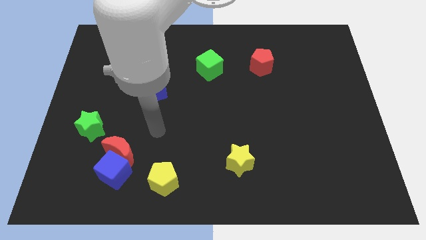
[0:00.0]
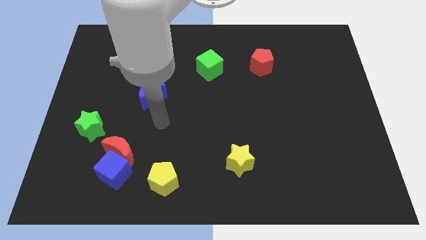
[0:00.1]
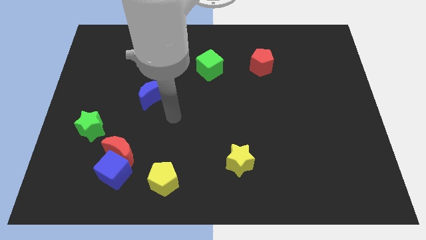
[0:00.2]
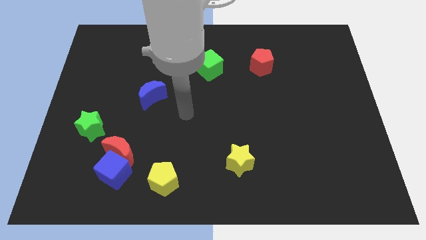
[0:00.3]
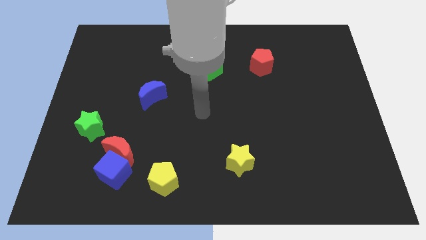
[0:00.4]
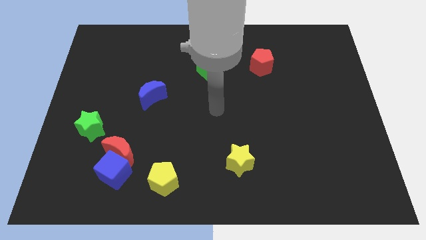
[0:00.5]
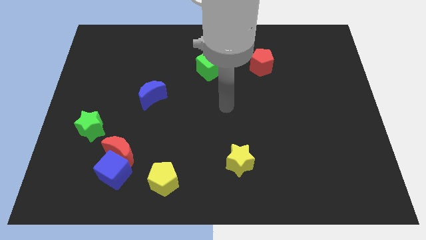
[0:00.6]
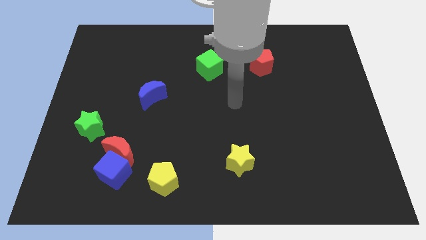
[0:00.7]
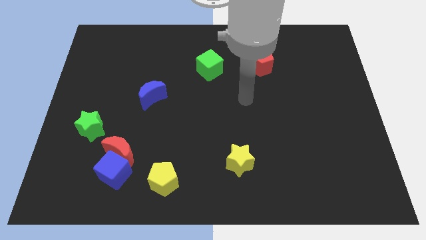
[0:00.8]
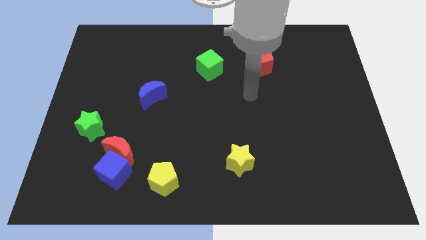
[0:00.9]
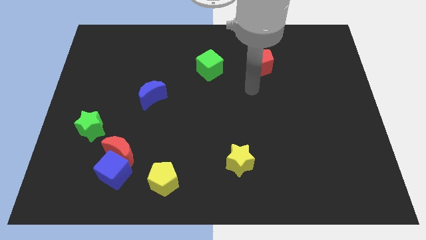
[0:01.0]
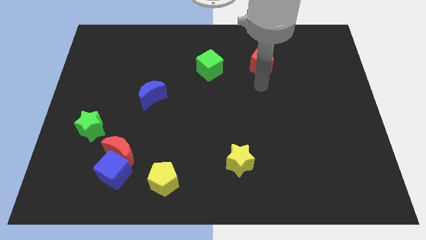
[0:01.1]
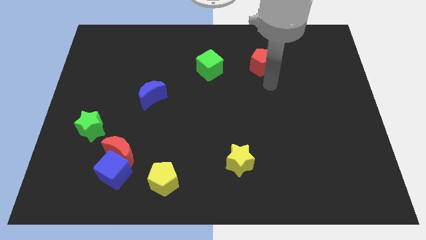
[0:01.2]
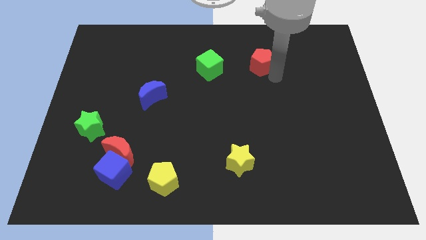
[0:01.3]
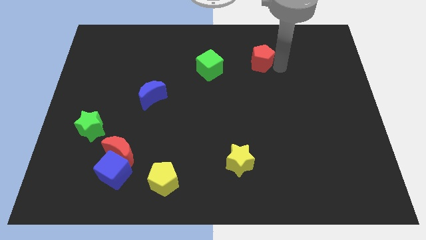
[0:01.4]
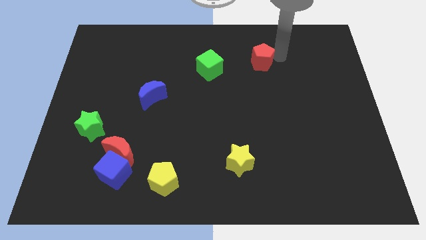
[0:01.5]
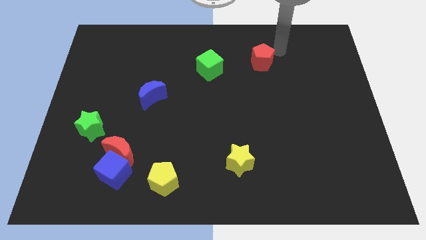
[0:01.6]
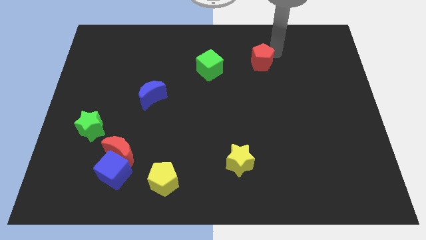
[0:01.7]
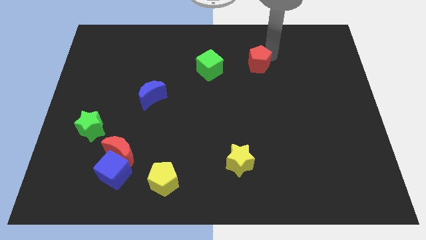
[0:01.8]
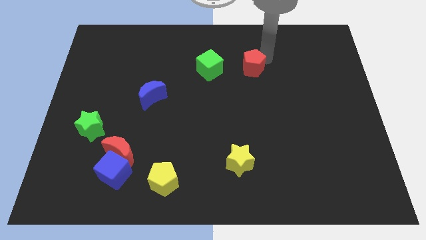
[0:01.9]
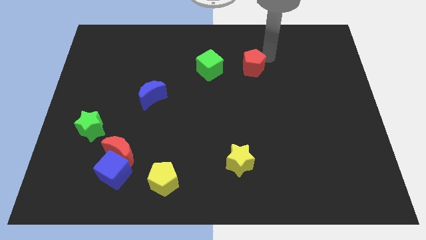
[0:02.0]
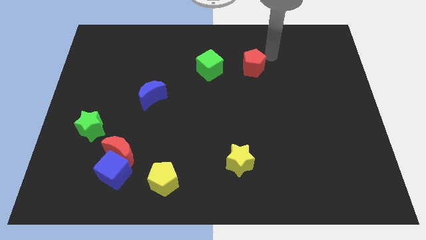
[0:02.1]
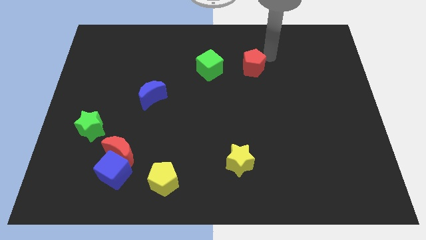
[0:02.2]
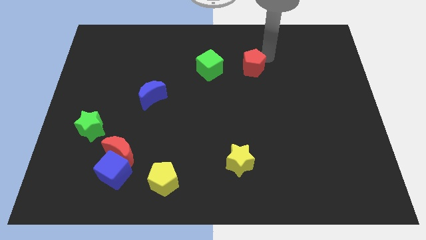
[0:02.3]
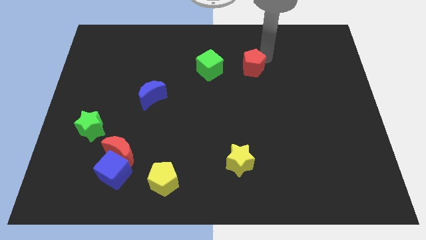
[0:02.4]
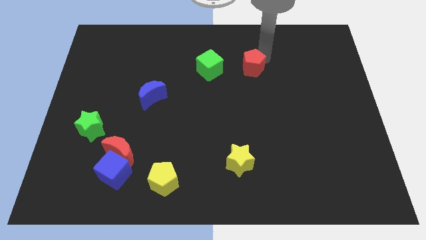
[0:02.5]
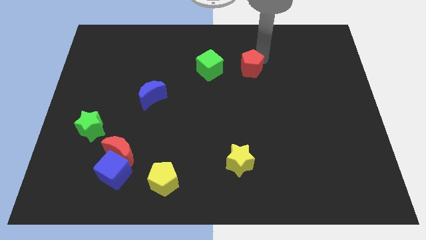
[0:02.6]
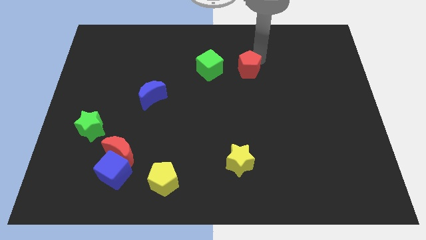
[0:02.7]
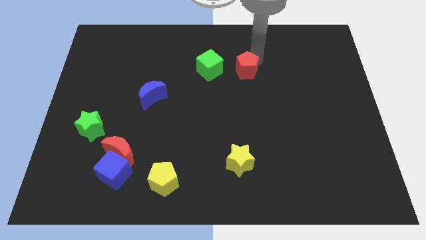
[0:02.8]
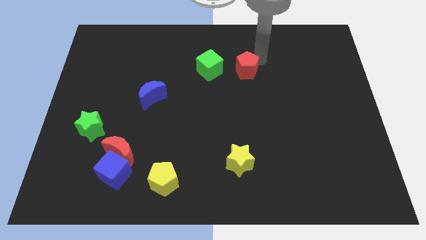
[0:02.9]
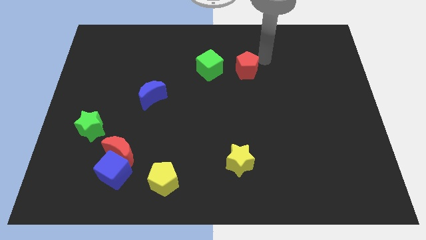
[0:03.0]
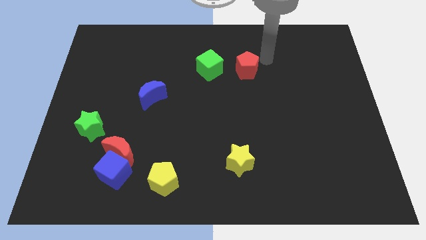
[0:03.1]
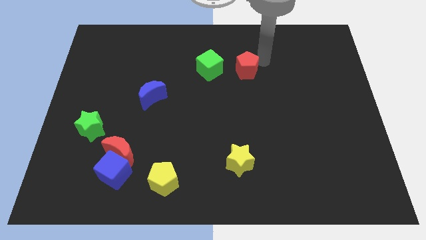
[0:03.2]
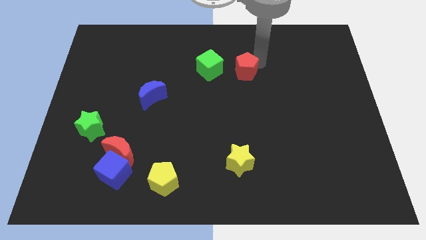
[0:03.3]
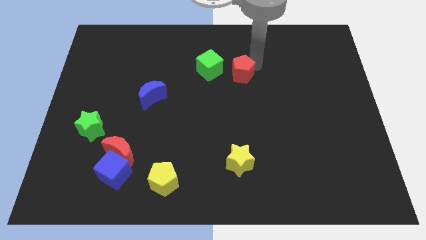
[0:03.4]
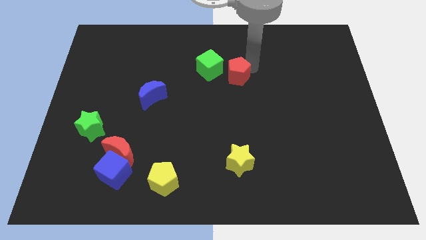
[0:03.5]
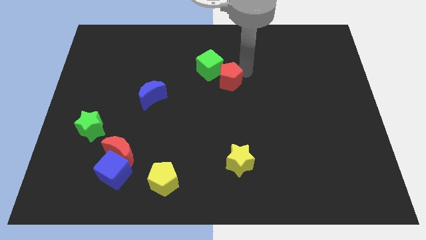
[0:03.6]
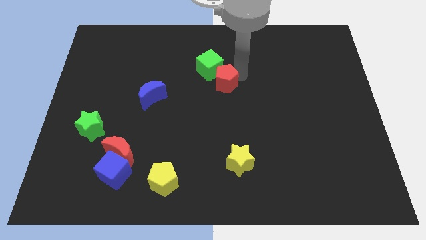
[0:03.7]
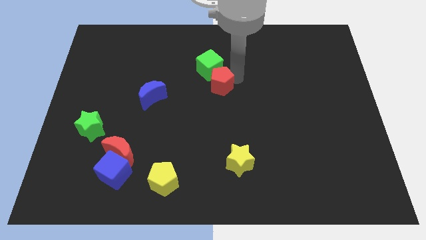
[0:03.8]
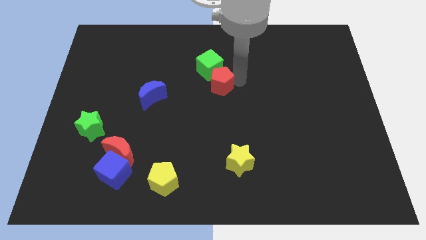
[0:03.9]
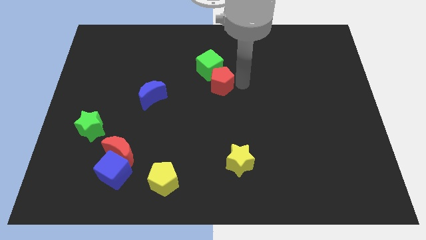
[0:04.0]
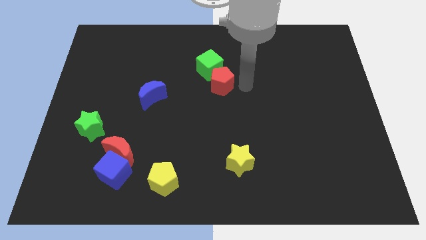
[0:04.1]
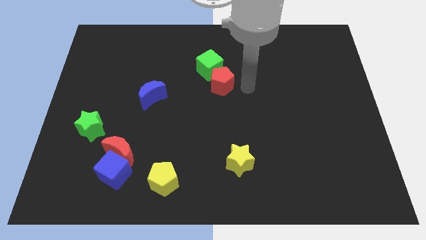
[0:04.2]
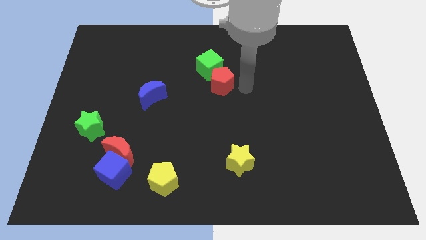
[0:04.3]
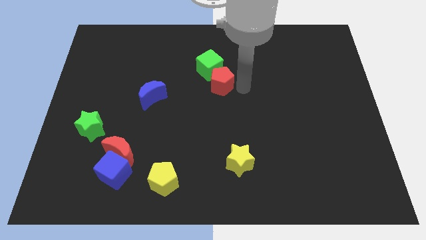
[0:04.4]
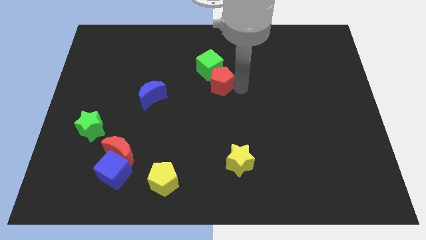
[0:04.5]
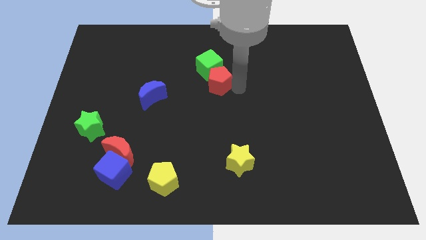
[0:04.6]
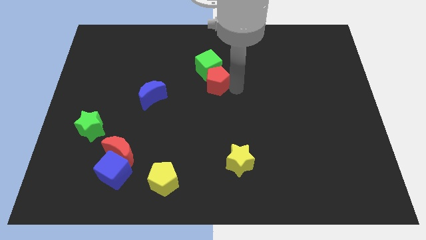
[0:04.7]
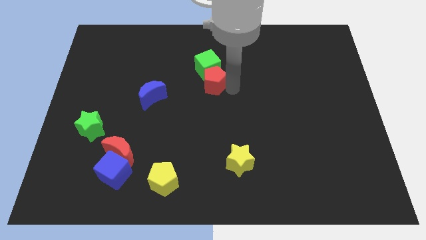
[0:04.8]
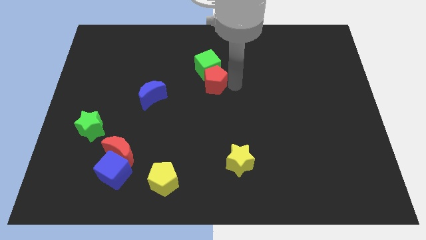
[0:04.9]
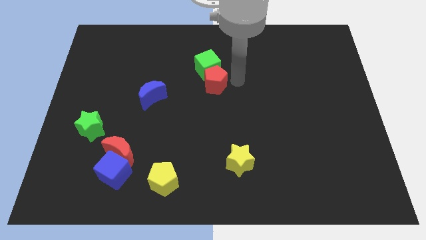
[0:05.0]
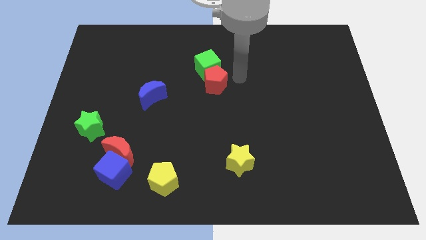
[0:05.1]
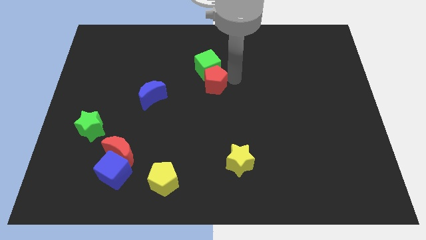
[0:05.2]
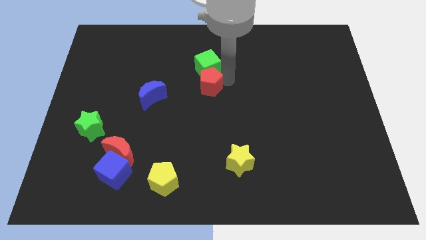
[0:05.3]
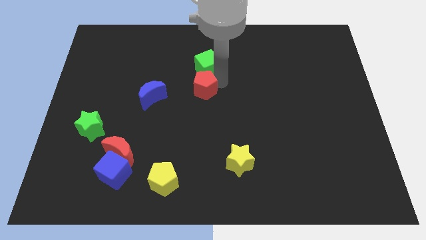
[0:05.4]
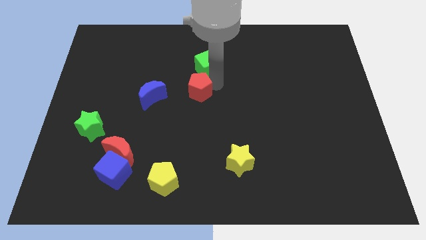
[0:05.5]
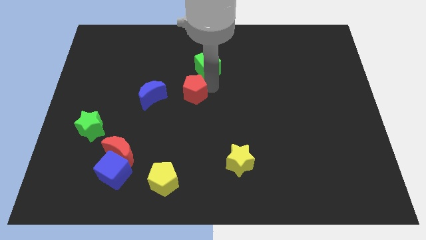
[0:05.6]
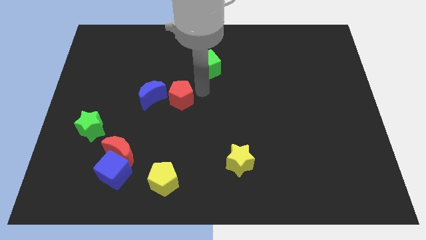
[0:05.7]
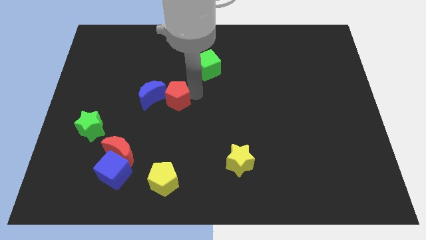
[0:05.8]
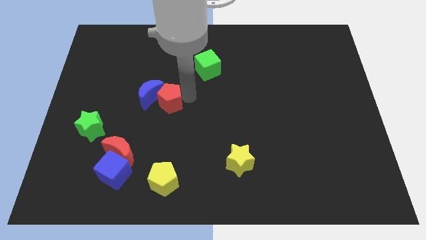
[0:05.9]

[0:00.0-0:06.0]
put the red pentagon next to the blue moon

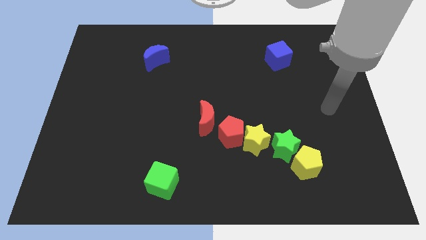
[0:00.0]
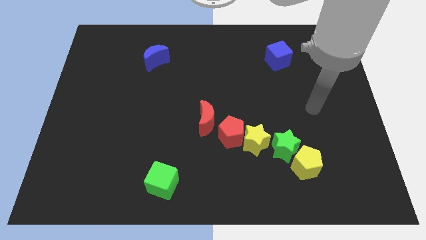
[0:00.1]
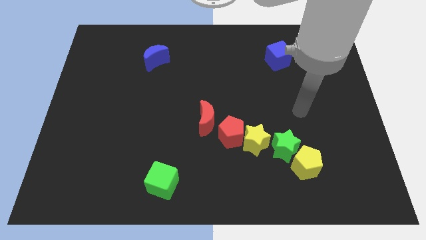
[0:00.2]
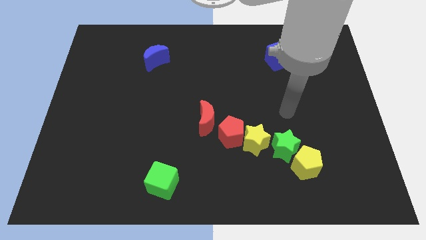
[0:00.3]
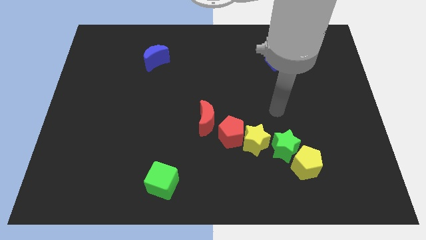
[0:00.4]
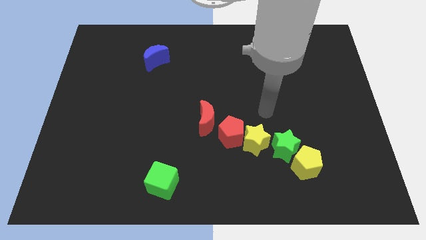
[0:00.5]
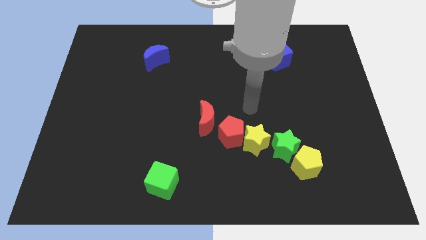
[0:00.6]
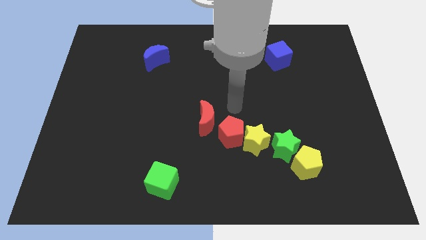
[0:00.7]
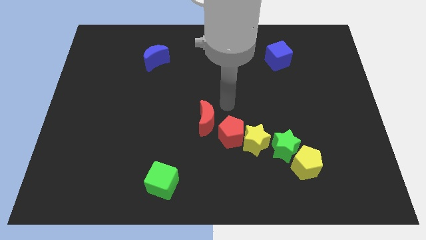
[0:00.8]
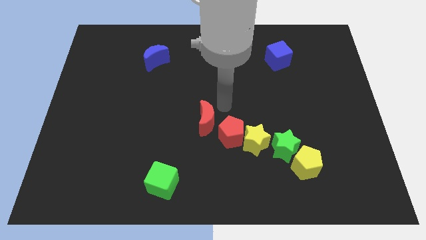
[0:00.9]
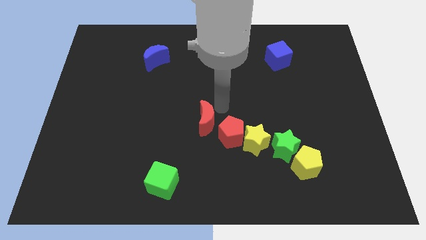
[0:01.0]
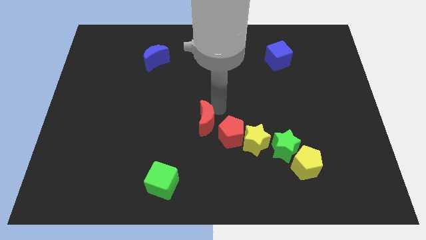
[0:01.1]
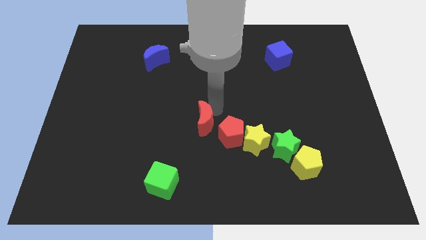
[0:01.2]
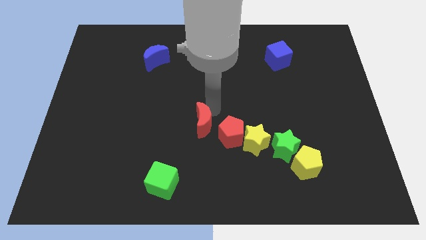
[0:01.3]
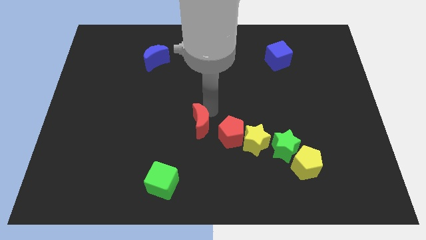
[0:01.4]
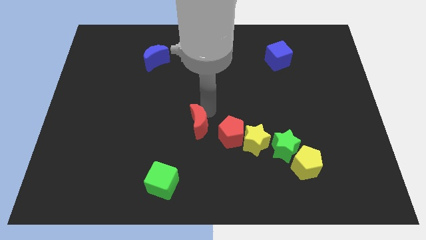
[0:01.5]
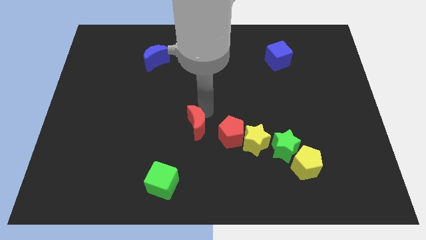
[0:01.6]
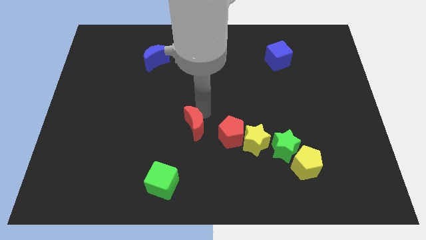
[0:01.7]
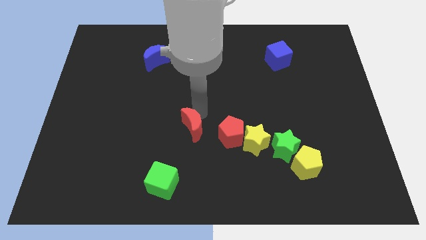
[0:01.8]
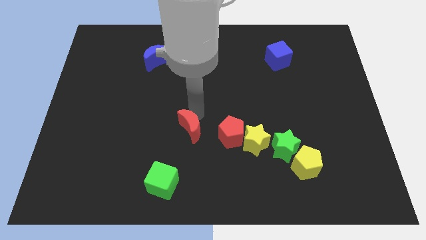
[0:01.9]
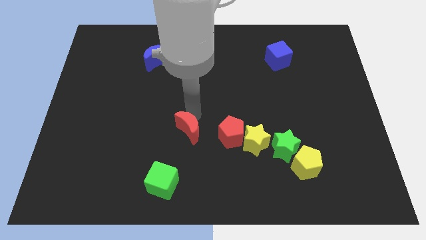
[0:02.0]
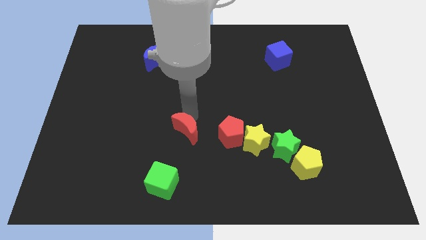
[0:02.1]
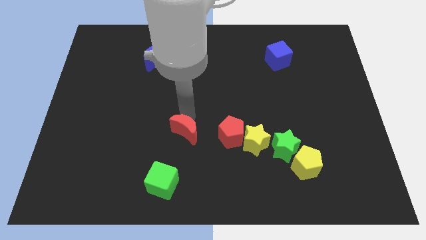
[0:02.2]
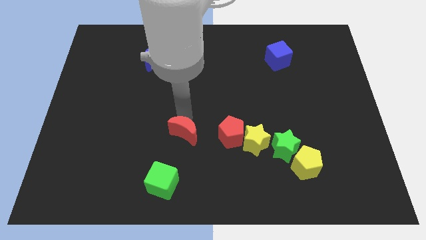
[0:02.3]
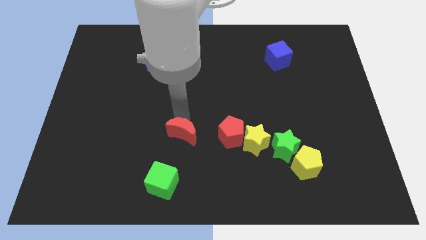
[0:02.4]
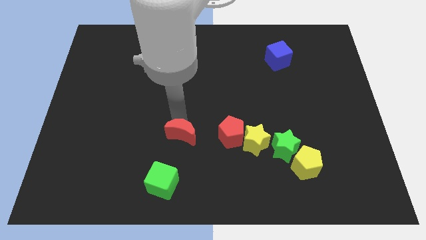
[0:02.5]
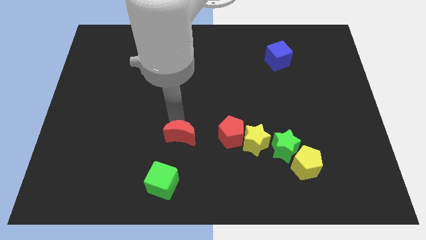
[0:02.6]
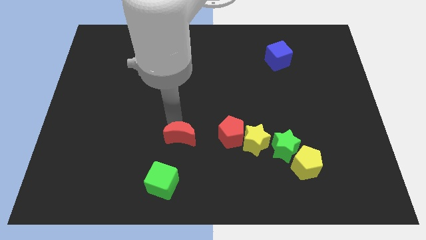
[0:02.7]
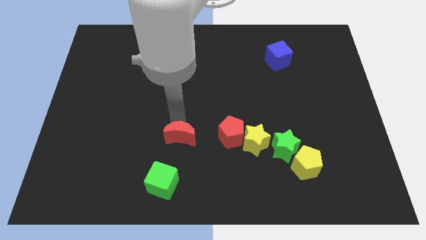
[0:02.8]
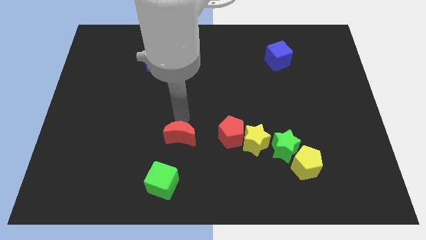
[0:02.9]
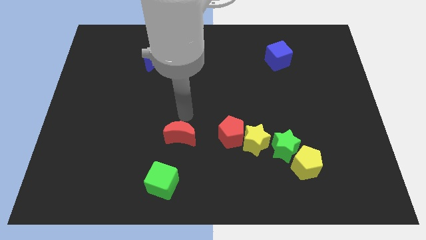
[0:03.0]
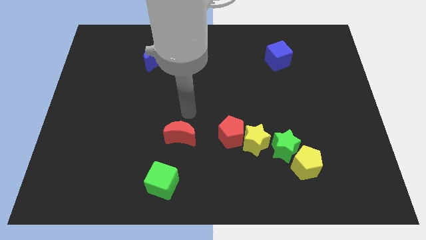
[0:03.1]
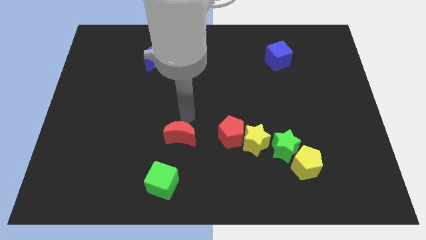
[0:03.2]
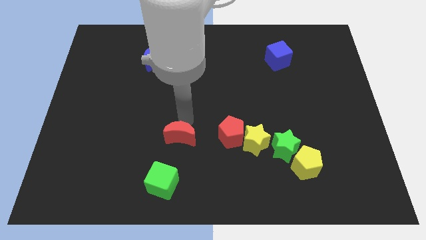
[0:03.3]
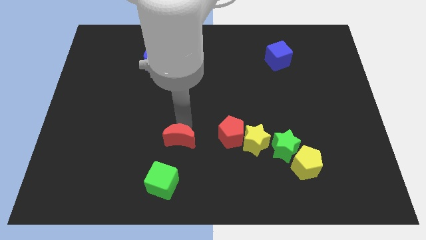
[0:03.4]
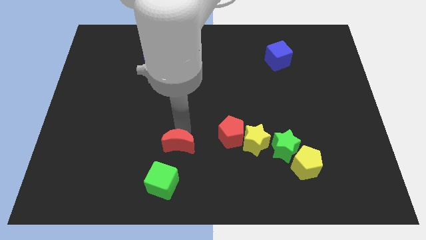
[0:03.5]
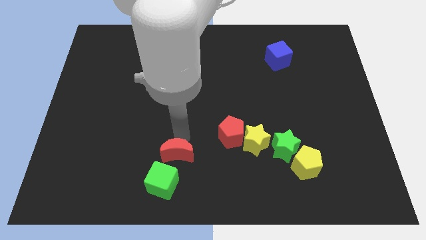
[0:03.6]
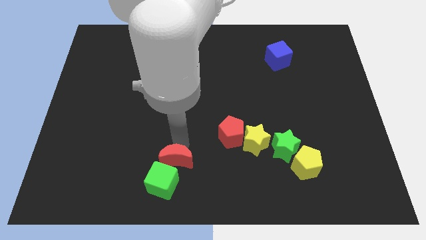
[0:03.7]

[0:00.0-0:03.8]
put the red moon towards the green cube
